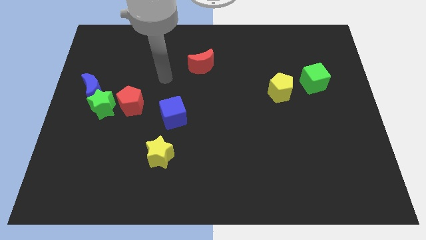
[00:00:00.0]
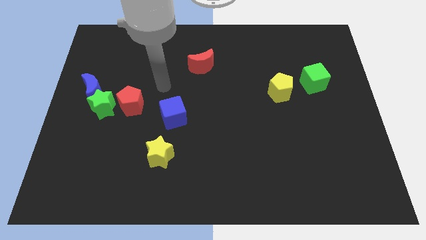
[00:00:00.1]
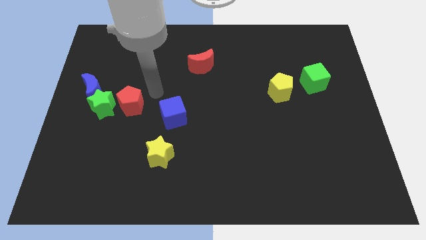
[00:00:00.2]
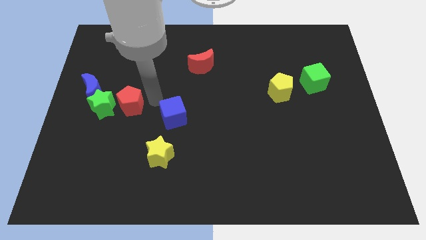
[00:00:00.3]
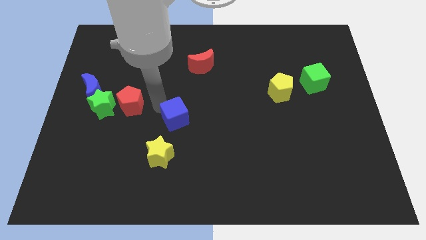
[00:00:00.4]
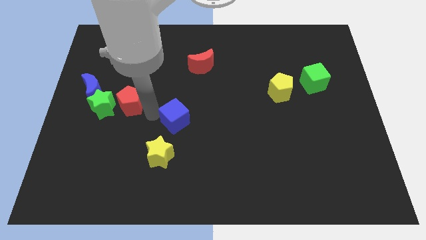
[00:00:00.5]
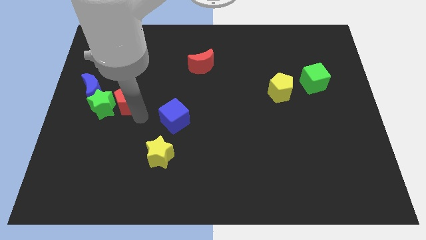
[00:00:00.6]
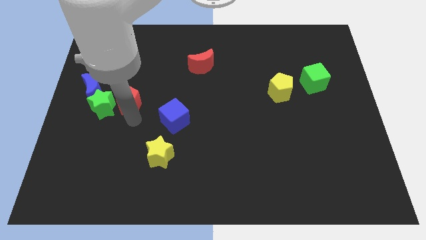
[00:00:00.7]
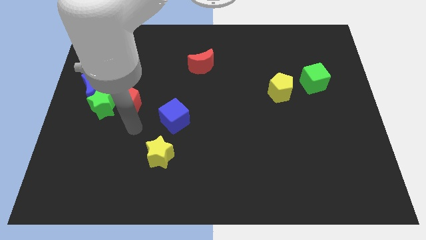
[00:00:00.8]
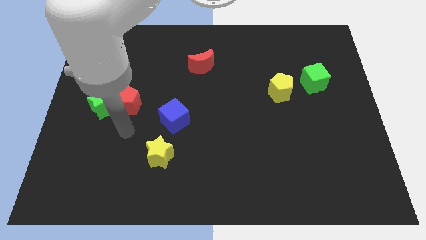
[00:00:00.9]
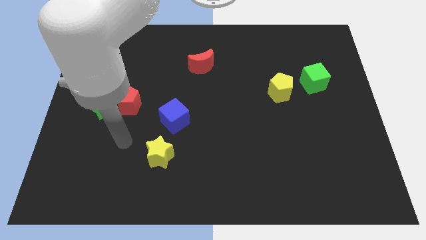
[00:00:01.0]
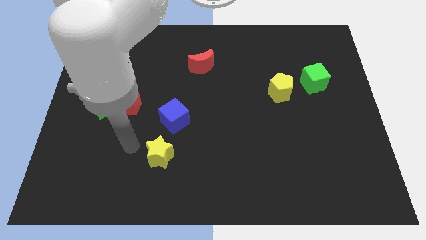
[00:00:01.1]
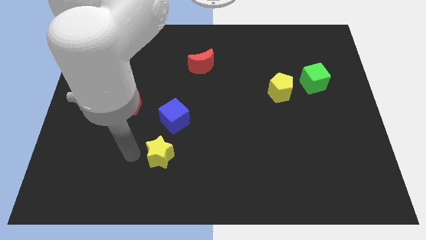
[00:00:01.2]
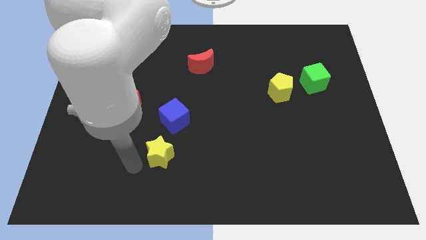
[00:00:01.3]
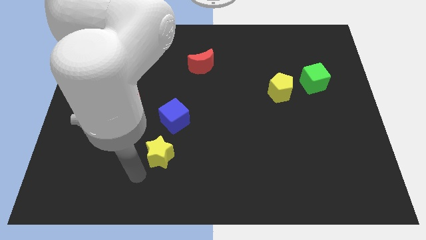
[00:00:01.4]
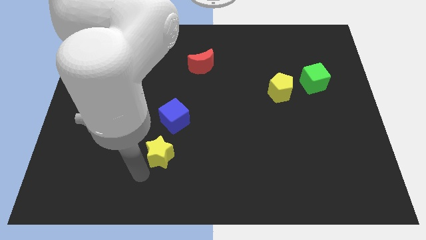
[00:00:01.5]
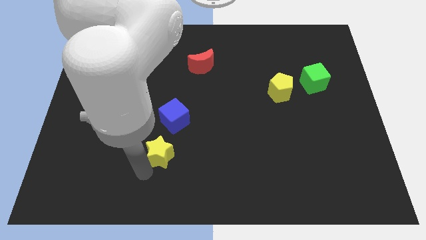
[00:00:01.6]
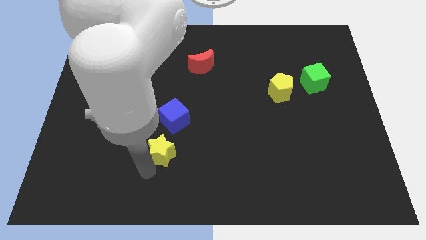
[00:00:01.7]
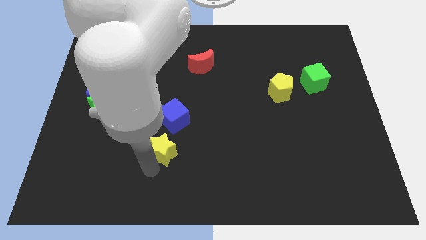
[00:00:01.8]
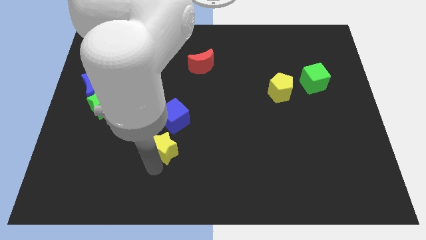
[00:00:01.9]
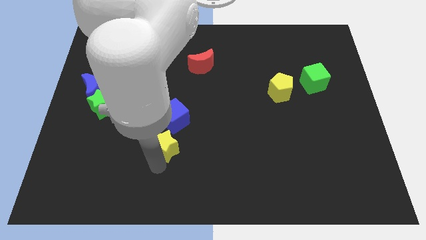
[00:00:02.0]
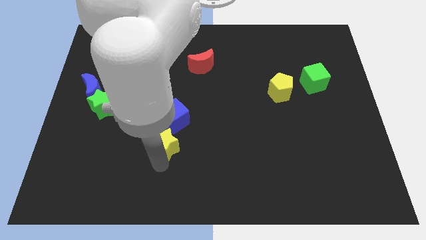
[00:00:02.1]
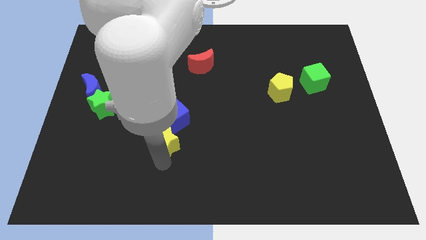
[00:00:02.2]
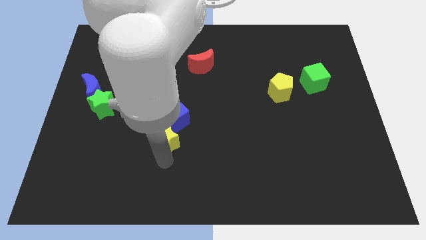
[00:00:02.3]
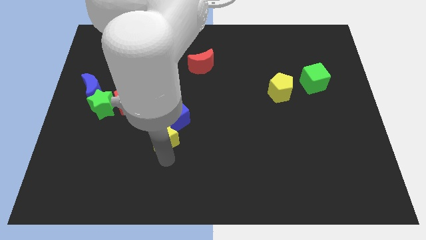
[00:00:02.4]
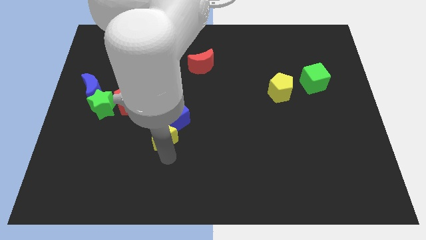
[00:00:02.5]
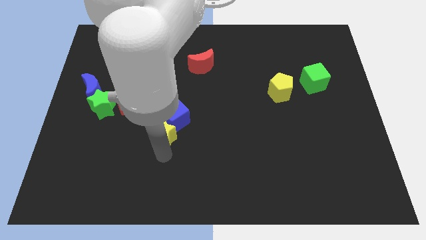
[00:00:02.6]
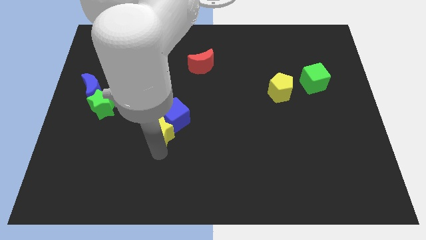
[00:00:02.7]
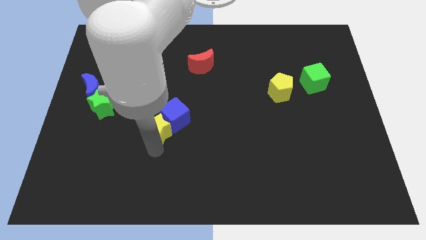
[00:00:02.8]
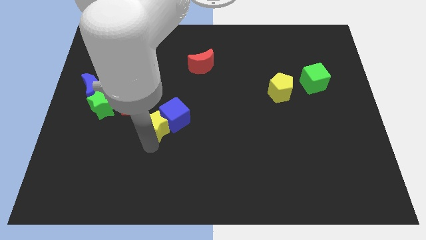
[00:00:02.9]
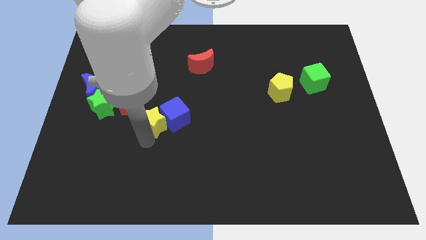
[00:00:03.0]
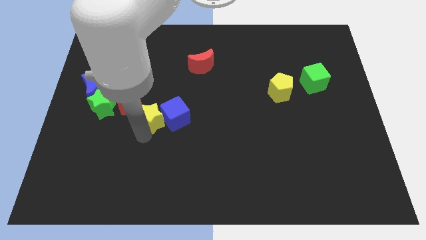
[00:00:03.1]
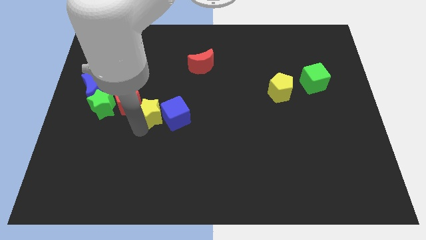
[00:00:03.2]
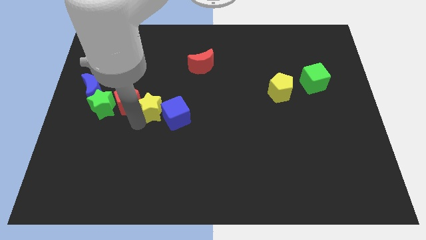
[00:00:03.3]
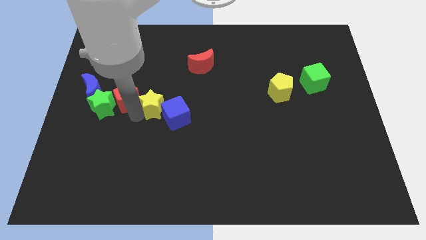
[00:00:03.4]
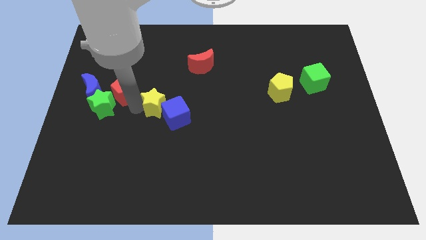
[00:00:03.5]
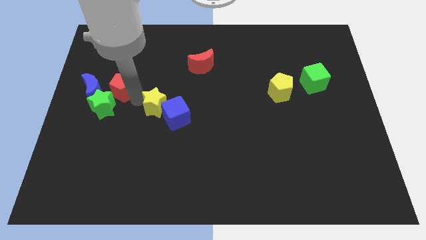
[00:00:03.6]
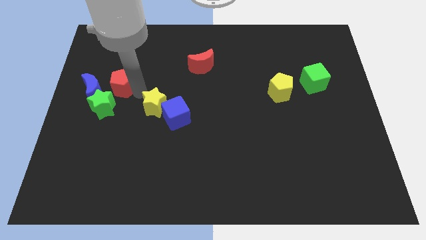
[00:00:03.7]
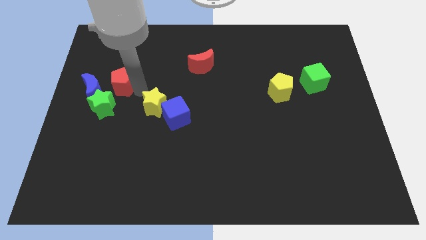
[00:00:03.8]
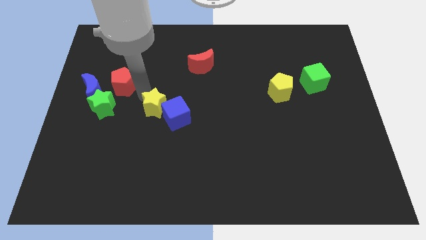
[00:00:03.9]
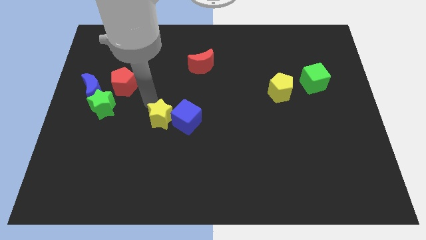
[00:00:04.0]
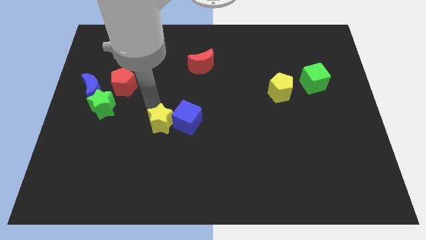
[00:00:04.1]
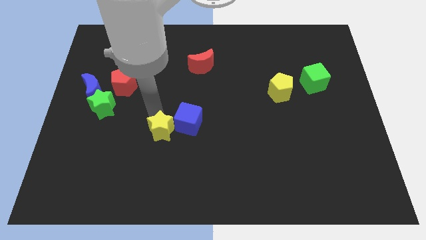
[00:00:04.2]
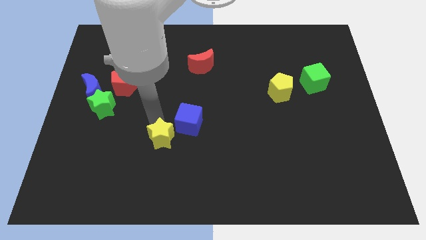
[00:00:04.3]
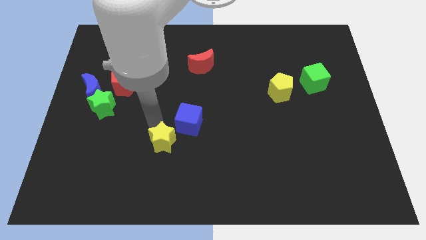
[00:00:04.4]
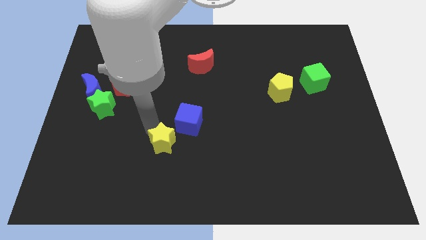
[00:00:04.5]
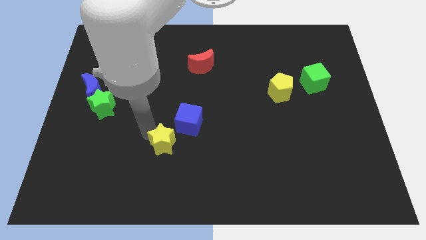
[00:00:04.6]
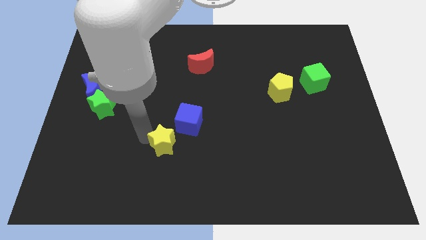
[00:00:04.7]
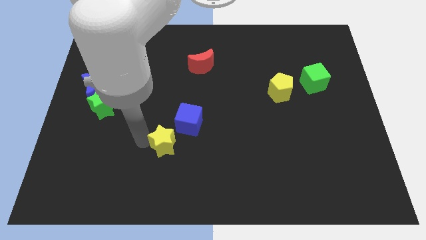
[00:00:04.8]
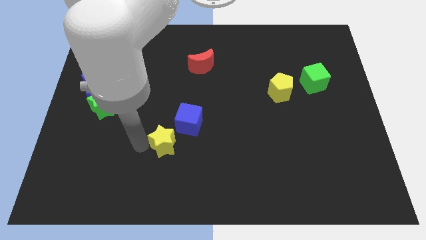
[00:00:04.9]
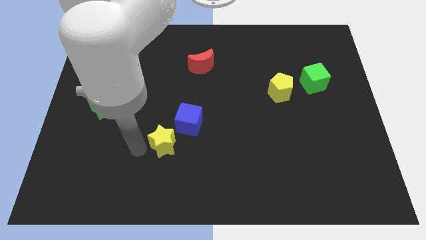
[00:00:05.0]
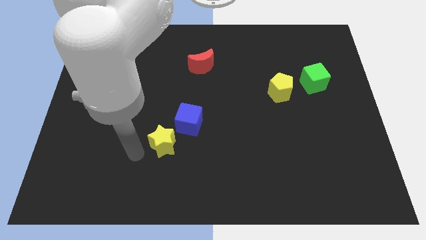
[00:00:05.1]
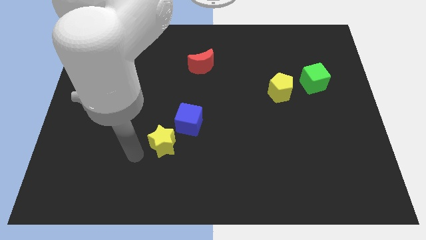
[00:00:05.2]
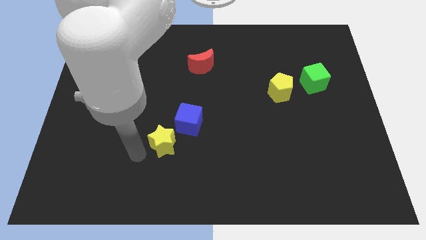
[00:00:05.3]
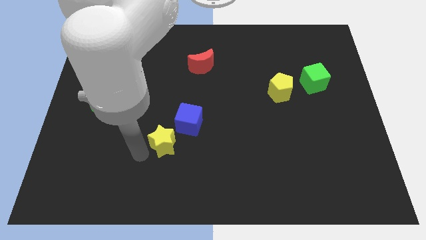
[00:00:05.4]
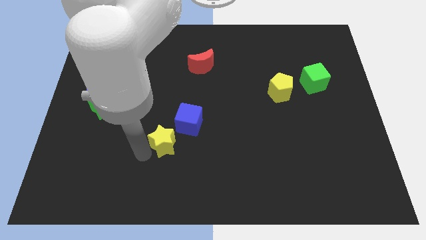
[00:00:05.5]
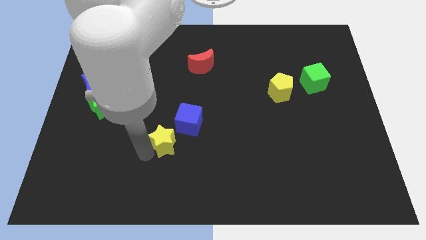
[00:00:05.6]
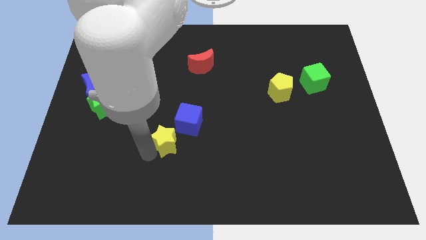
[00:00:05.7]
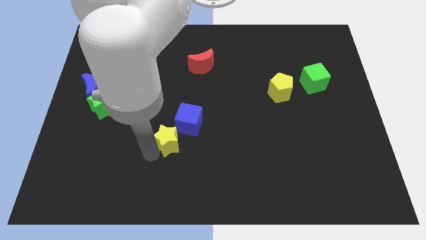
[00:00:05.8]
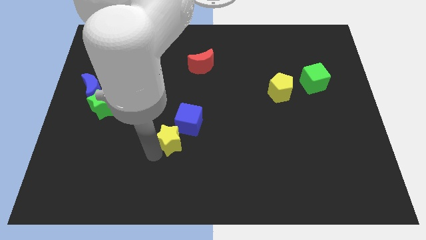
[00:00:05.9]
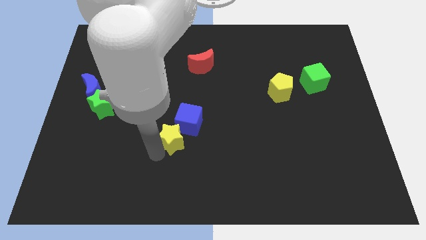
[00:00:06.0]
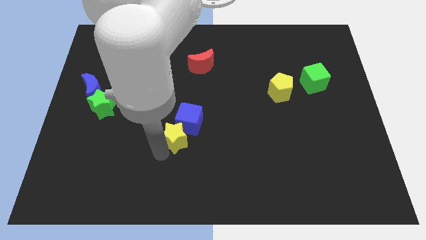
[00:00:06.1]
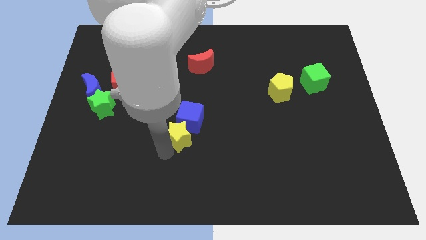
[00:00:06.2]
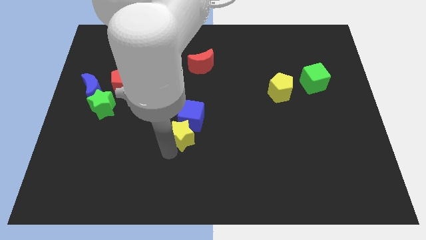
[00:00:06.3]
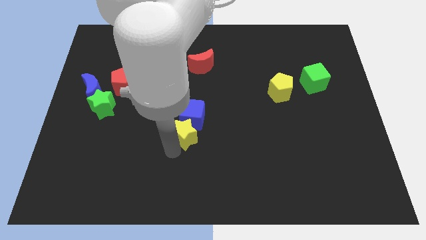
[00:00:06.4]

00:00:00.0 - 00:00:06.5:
slide the yellow star a little bit upwards and to the right diagonally

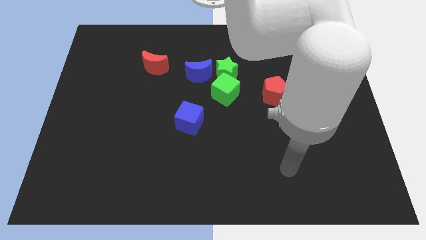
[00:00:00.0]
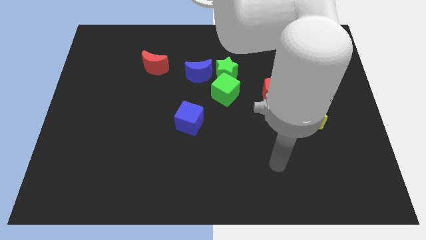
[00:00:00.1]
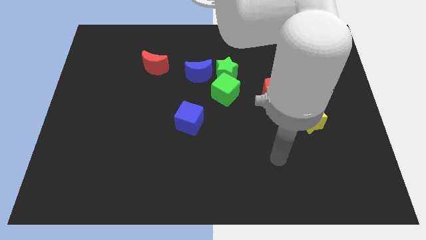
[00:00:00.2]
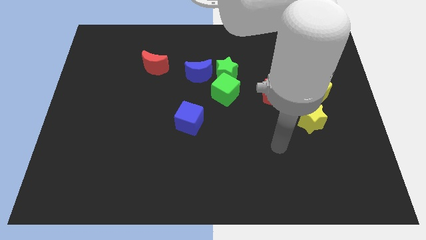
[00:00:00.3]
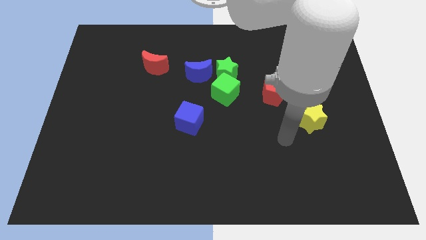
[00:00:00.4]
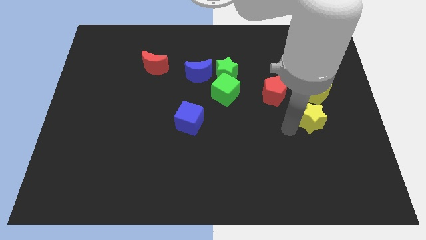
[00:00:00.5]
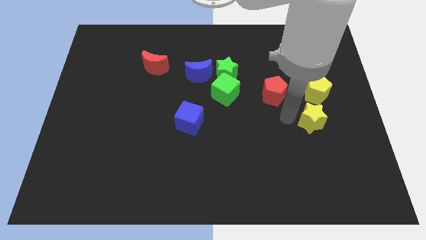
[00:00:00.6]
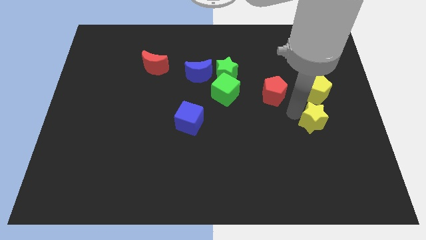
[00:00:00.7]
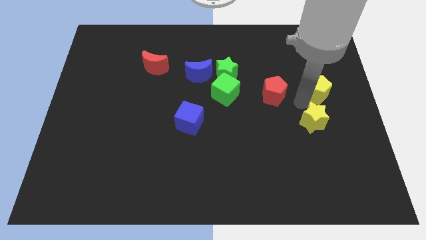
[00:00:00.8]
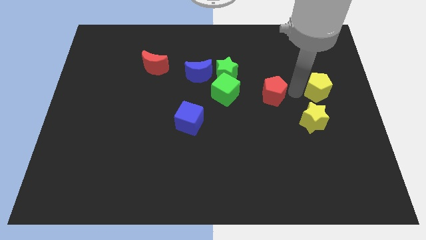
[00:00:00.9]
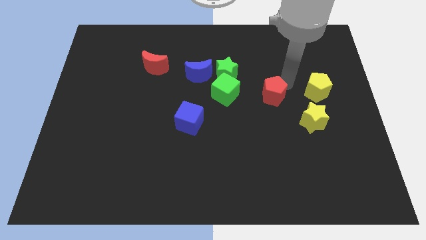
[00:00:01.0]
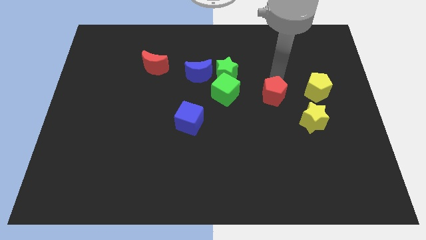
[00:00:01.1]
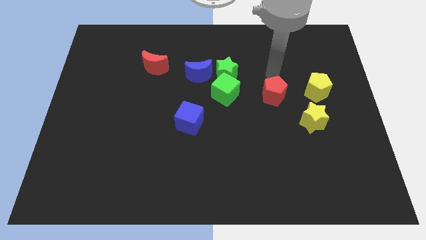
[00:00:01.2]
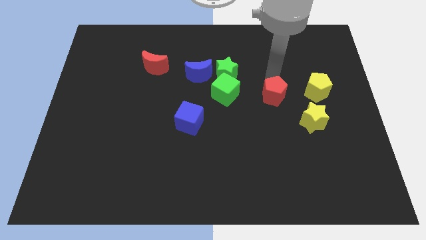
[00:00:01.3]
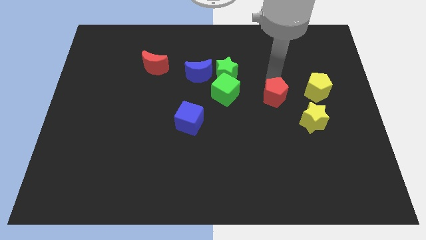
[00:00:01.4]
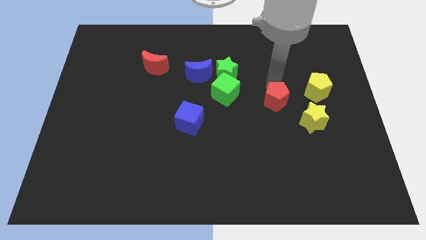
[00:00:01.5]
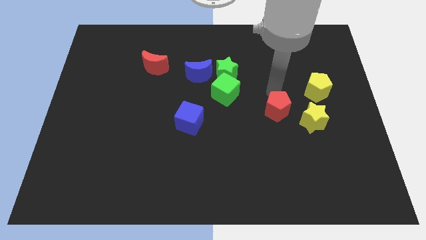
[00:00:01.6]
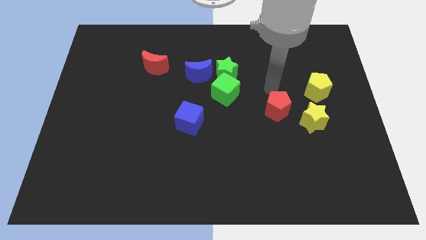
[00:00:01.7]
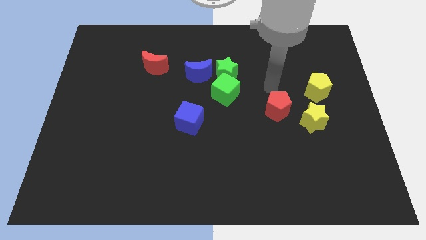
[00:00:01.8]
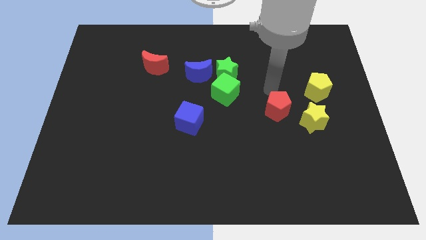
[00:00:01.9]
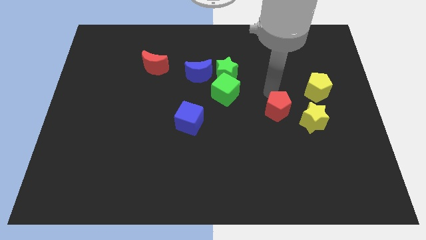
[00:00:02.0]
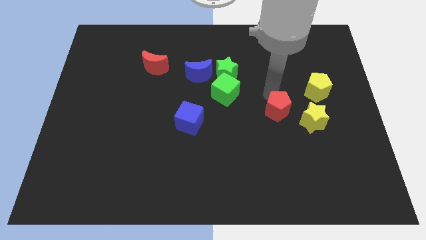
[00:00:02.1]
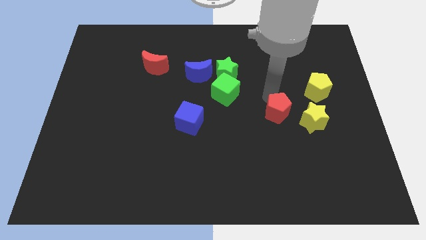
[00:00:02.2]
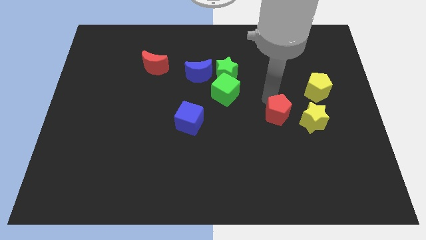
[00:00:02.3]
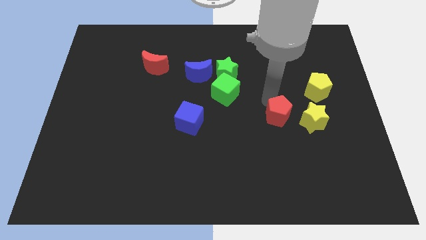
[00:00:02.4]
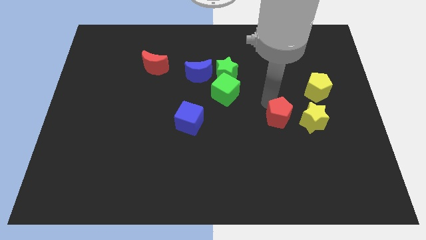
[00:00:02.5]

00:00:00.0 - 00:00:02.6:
slide the red pentagon a little down
